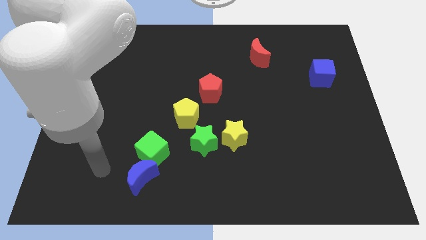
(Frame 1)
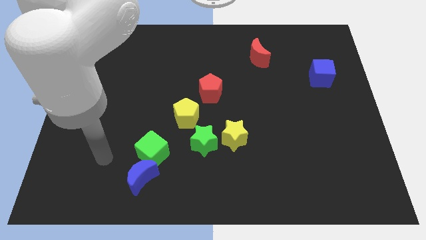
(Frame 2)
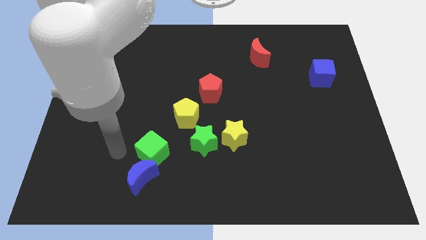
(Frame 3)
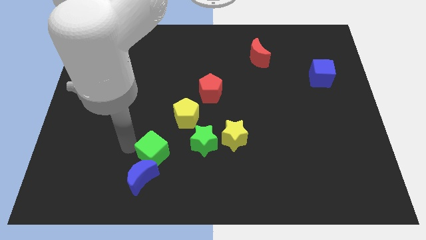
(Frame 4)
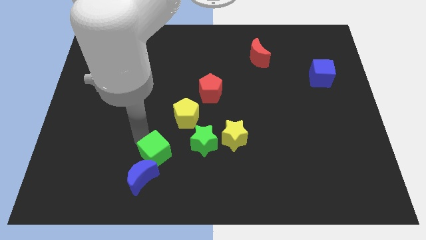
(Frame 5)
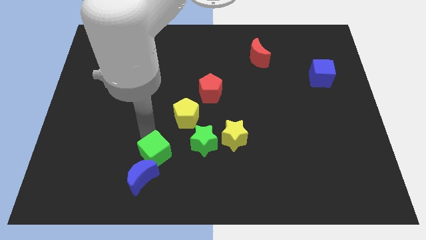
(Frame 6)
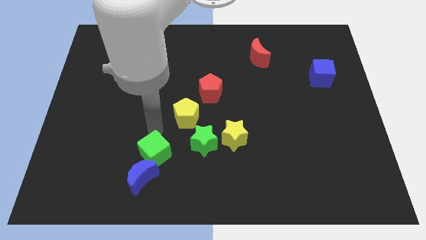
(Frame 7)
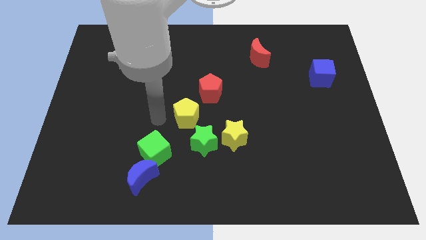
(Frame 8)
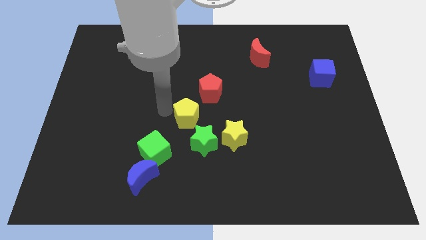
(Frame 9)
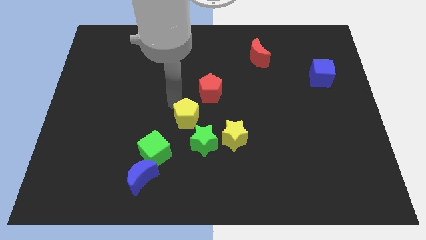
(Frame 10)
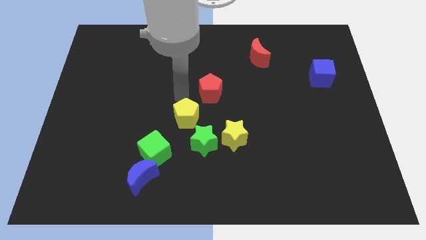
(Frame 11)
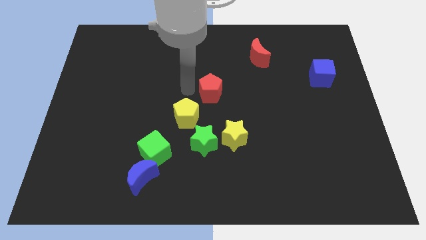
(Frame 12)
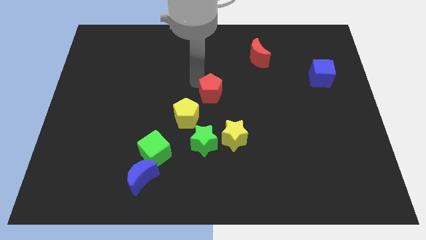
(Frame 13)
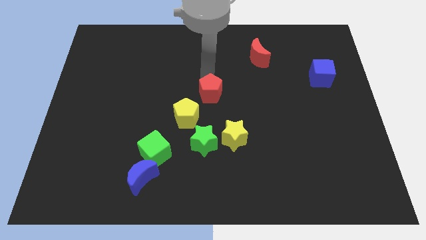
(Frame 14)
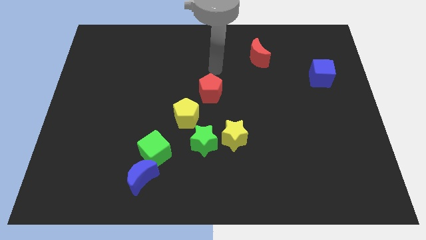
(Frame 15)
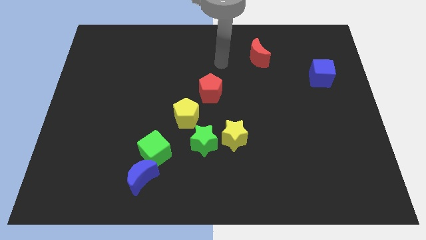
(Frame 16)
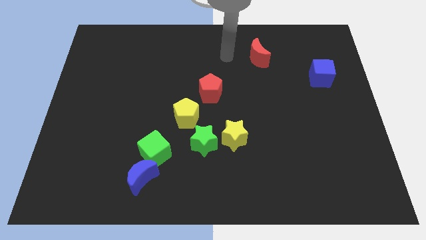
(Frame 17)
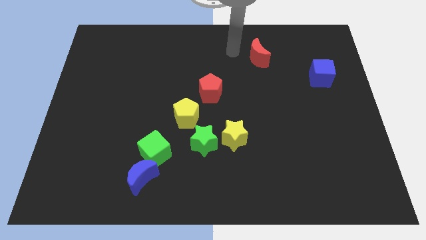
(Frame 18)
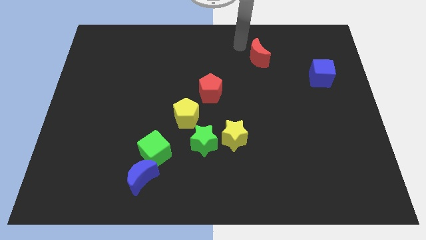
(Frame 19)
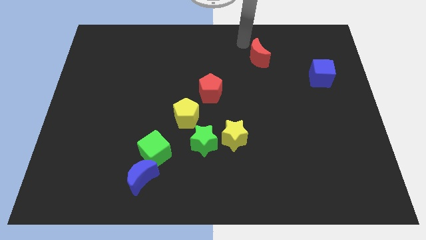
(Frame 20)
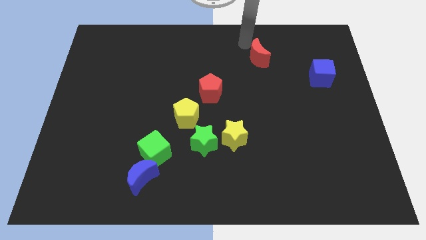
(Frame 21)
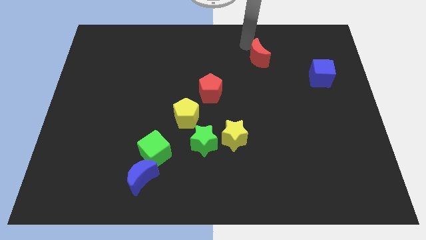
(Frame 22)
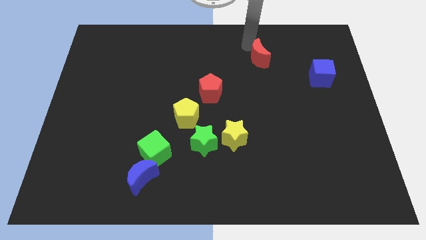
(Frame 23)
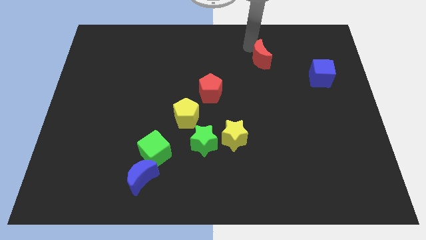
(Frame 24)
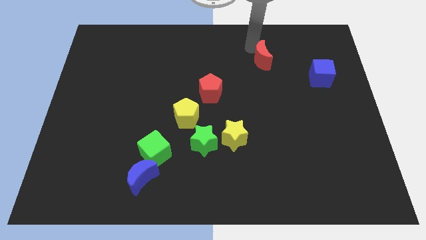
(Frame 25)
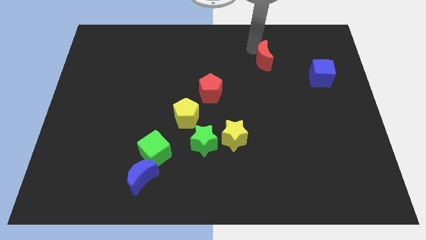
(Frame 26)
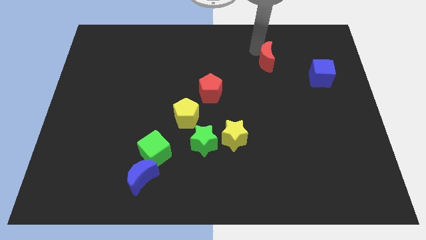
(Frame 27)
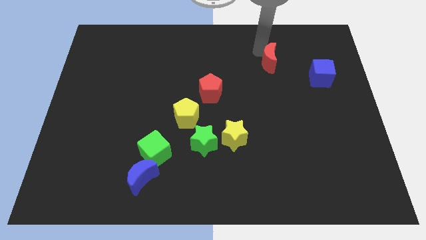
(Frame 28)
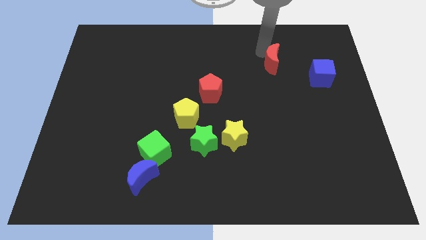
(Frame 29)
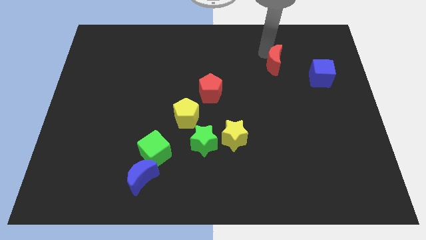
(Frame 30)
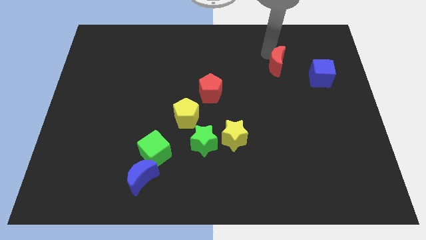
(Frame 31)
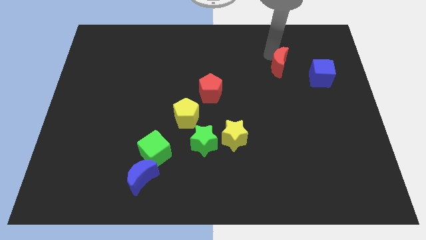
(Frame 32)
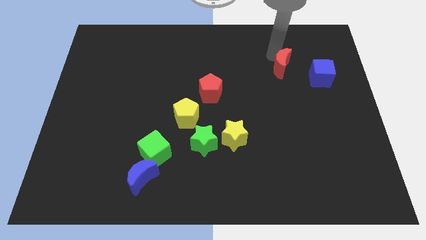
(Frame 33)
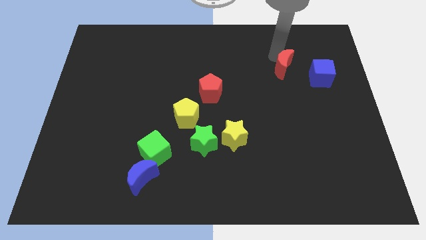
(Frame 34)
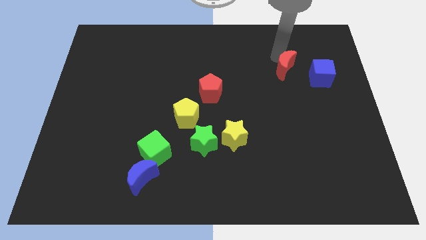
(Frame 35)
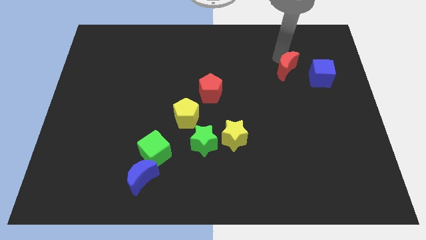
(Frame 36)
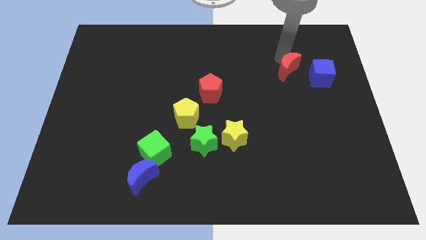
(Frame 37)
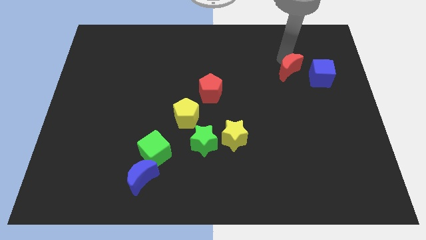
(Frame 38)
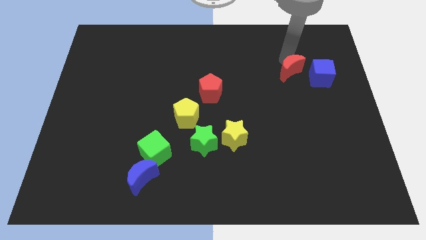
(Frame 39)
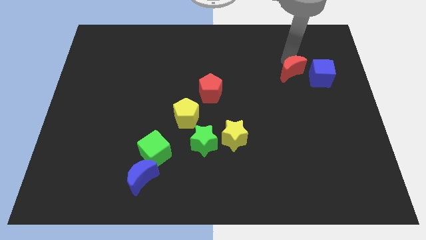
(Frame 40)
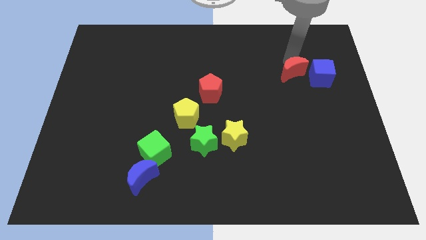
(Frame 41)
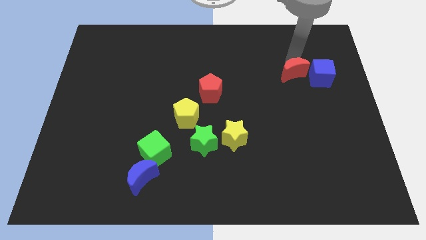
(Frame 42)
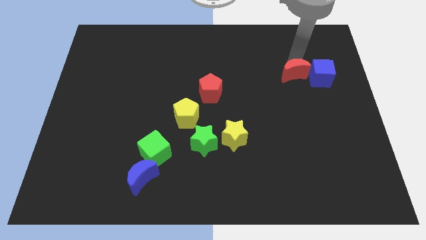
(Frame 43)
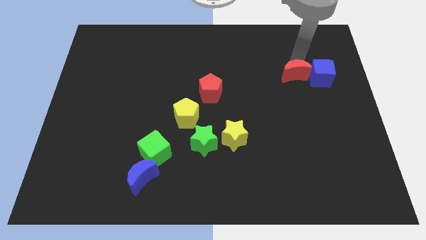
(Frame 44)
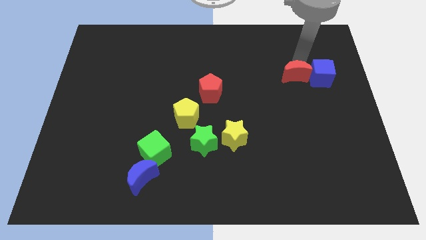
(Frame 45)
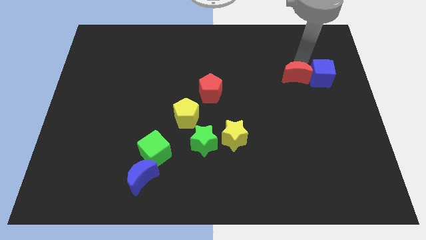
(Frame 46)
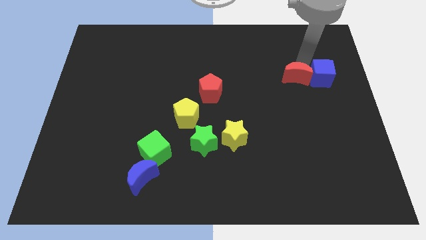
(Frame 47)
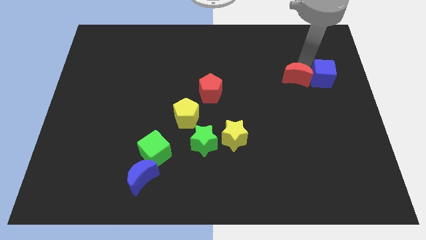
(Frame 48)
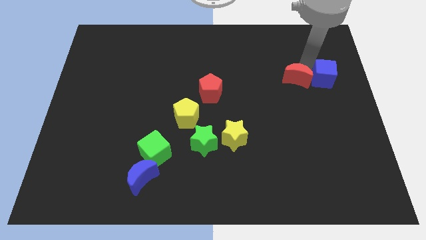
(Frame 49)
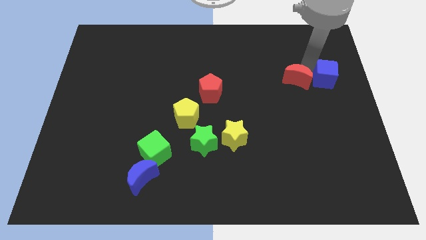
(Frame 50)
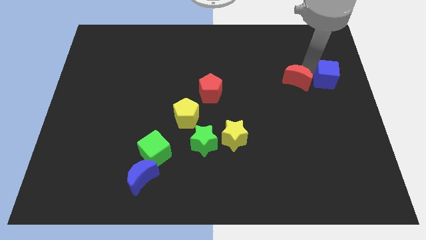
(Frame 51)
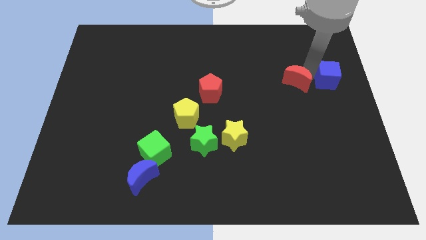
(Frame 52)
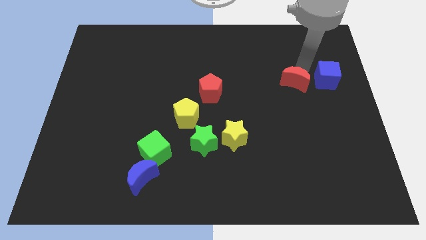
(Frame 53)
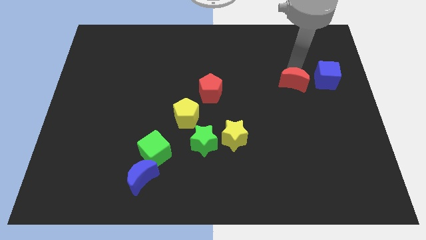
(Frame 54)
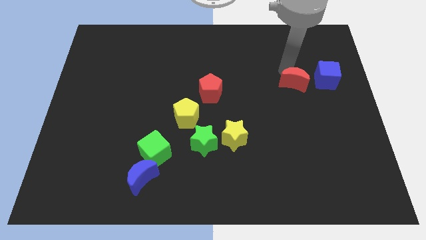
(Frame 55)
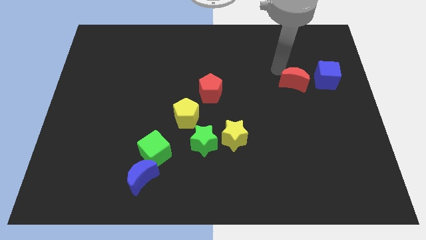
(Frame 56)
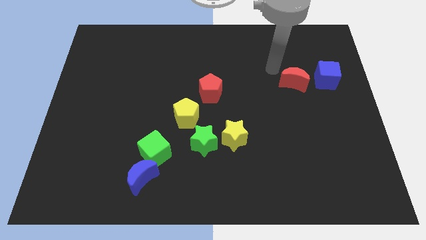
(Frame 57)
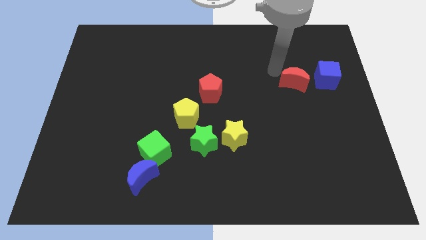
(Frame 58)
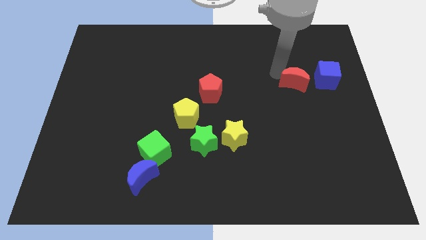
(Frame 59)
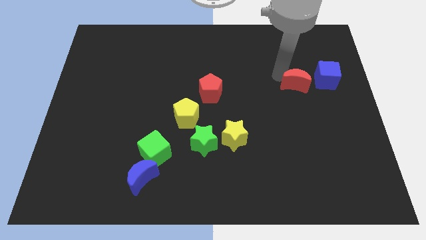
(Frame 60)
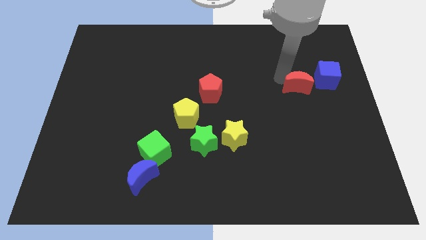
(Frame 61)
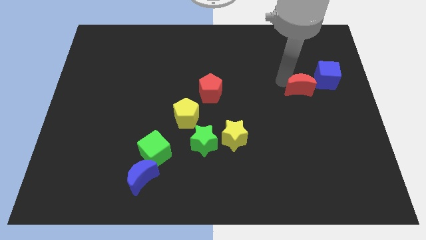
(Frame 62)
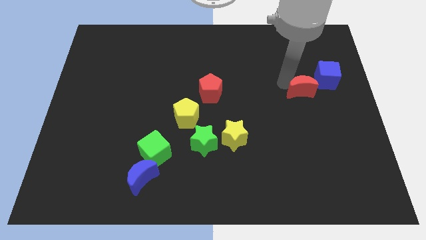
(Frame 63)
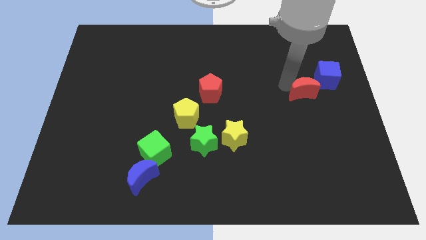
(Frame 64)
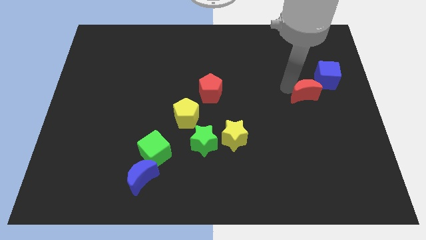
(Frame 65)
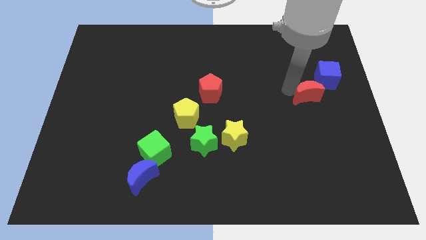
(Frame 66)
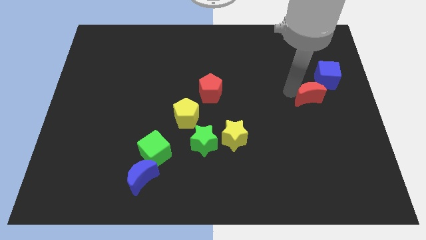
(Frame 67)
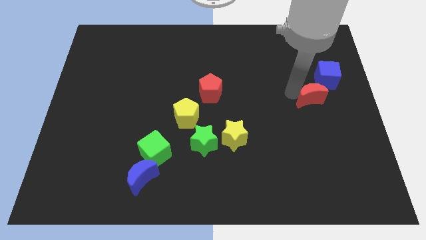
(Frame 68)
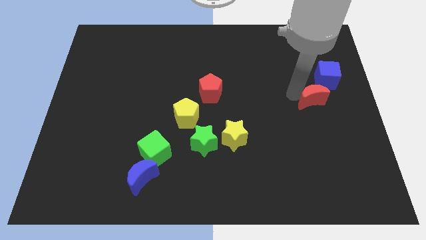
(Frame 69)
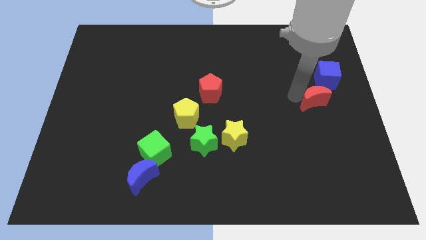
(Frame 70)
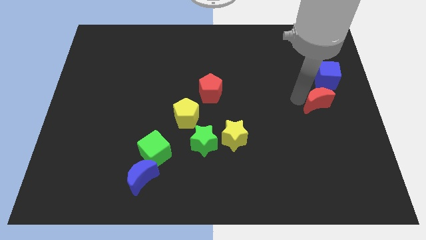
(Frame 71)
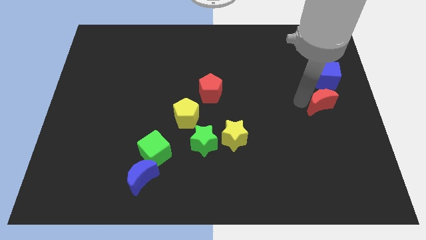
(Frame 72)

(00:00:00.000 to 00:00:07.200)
push the red moon to the right side of the board

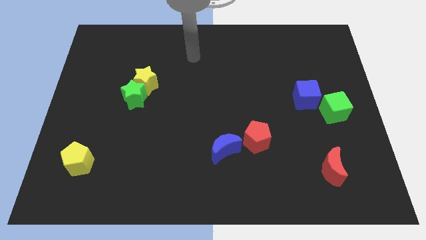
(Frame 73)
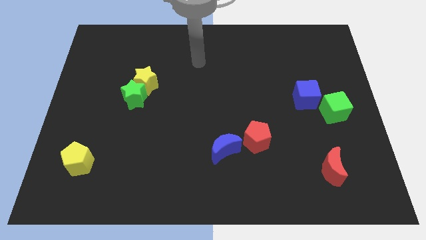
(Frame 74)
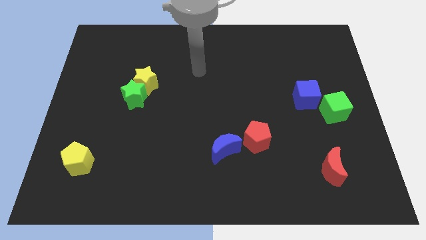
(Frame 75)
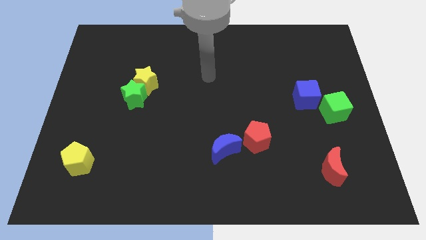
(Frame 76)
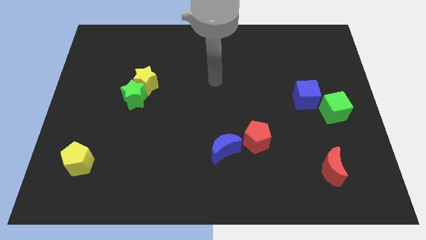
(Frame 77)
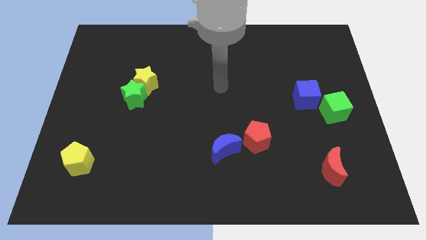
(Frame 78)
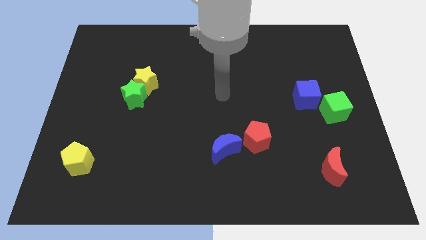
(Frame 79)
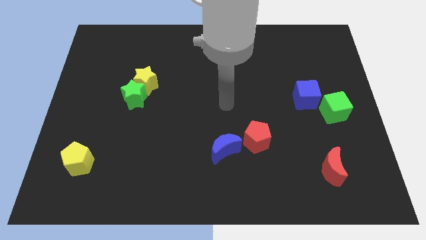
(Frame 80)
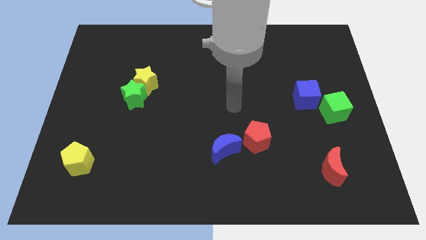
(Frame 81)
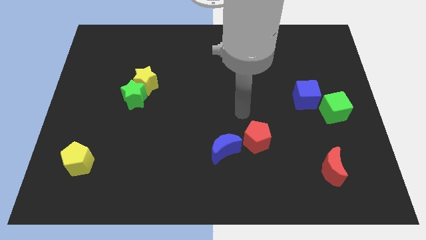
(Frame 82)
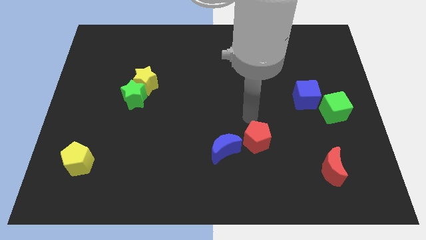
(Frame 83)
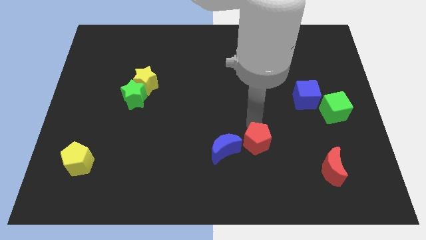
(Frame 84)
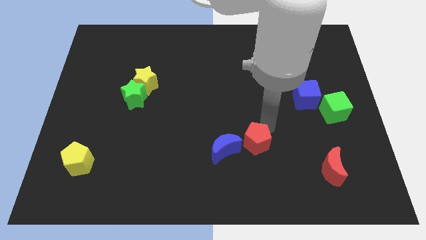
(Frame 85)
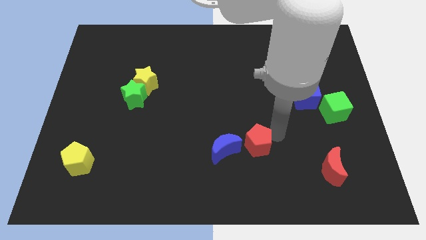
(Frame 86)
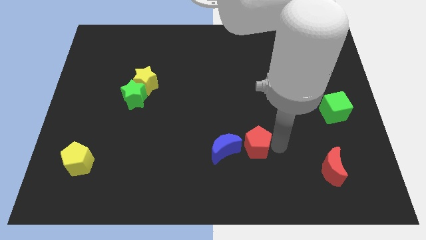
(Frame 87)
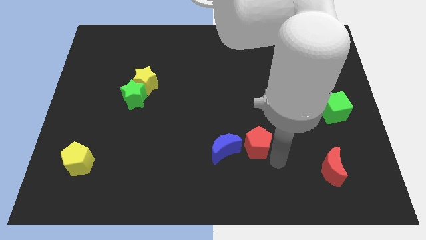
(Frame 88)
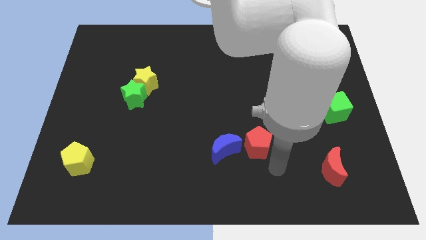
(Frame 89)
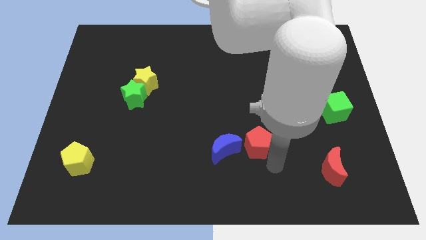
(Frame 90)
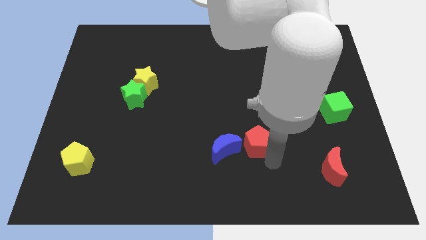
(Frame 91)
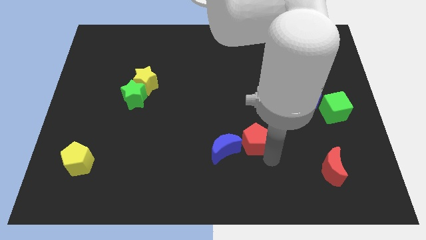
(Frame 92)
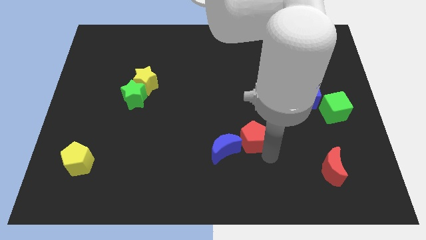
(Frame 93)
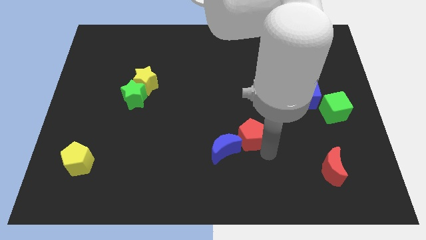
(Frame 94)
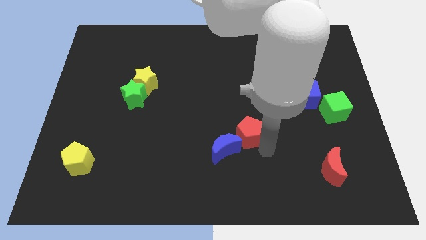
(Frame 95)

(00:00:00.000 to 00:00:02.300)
put the red pentagon to the middle of the board
